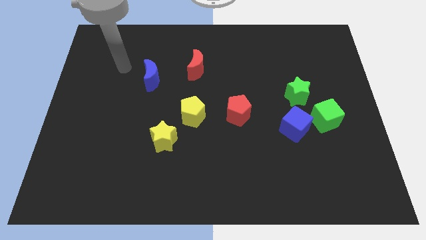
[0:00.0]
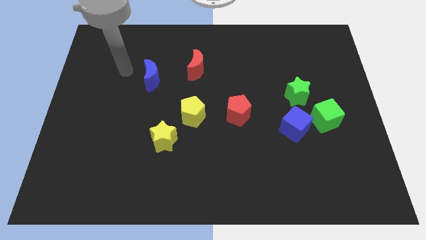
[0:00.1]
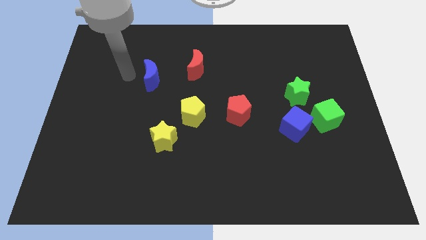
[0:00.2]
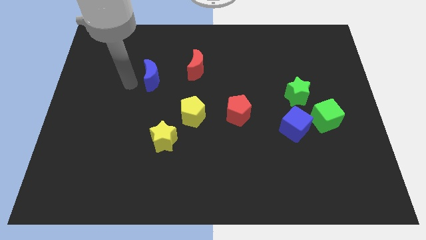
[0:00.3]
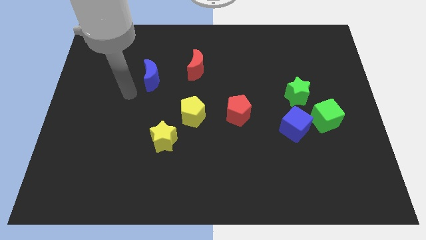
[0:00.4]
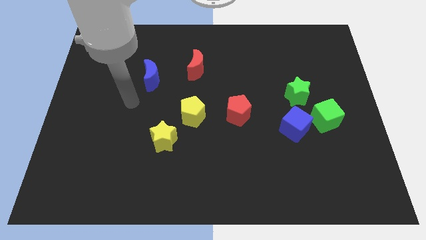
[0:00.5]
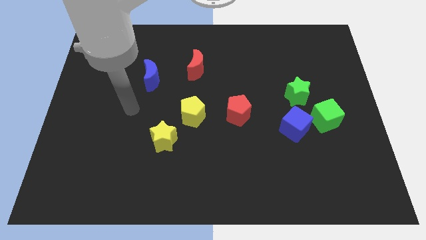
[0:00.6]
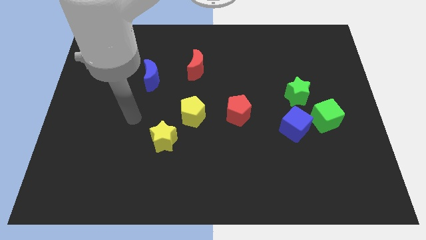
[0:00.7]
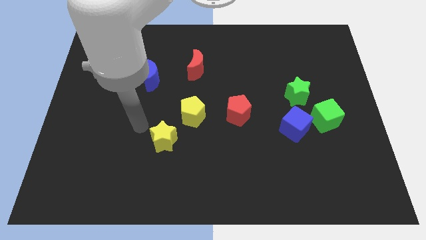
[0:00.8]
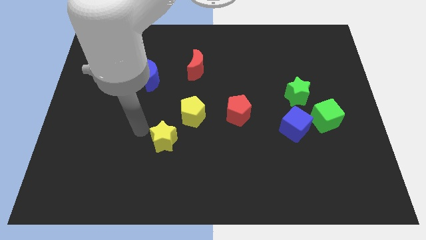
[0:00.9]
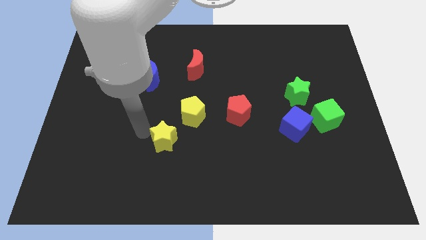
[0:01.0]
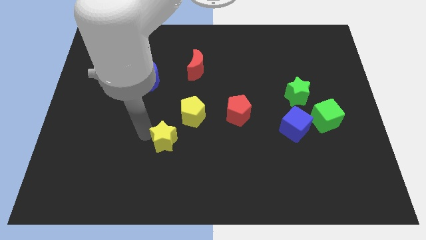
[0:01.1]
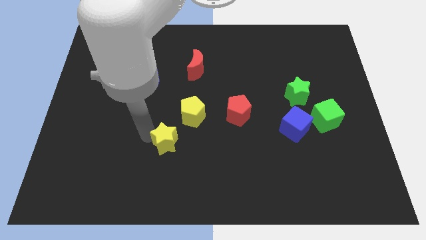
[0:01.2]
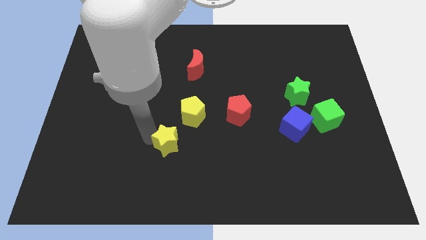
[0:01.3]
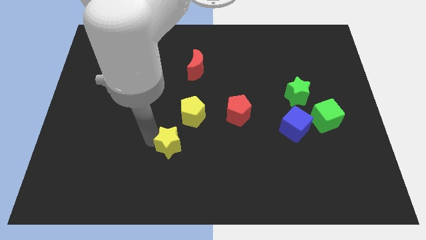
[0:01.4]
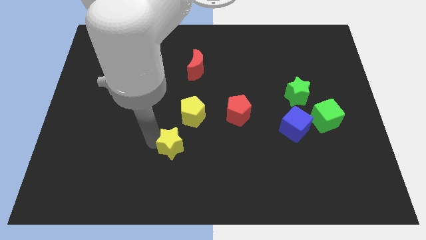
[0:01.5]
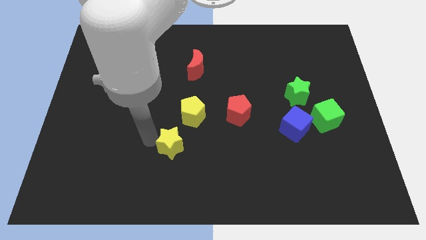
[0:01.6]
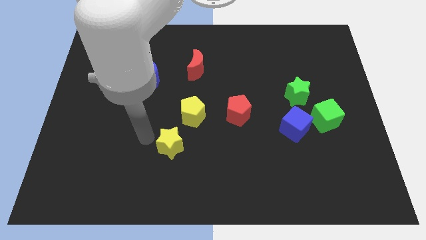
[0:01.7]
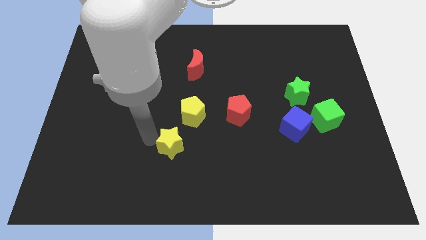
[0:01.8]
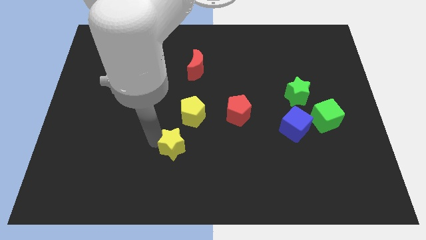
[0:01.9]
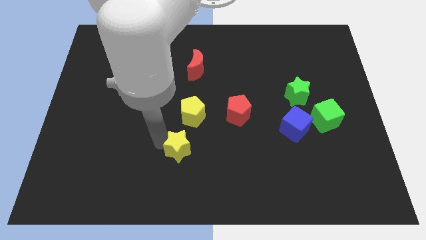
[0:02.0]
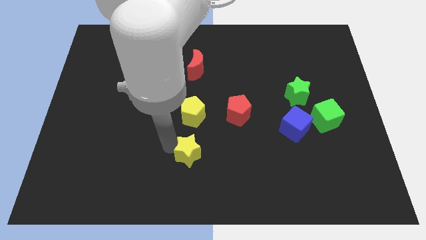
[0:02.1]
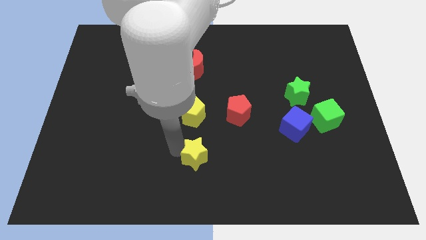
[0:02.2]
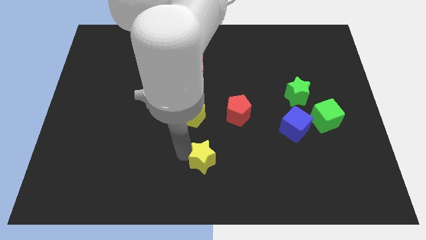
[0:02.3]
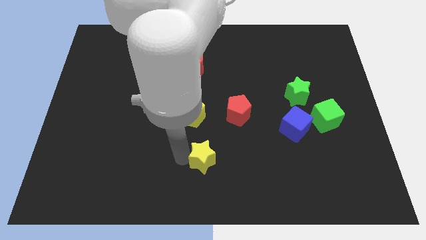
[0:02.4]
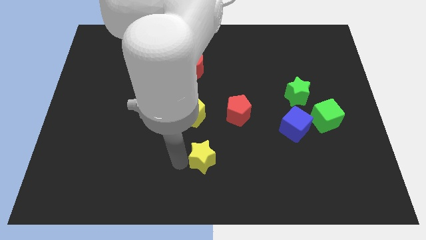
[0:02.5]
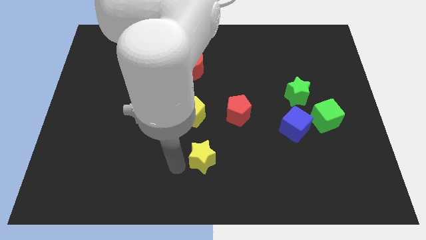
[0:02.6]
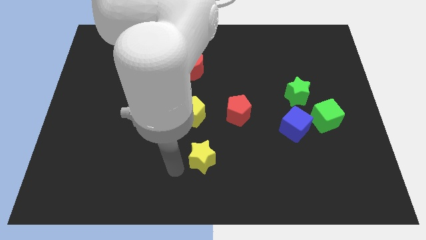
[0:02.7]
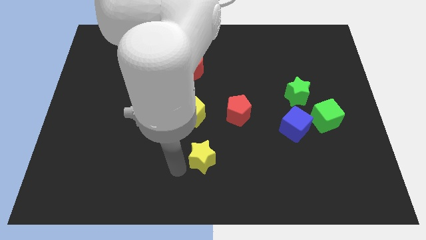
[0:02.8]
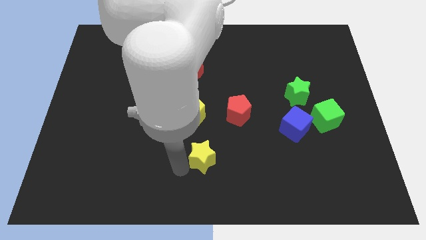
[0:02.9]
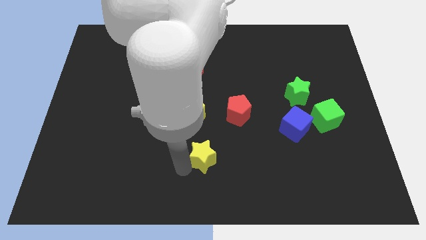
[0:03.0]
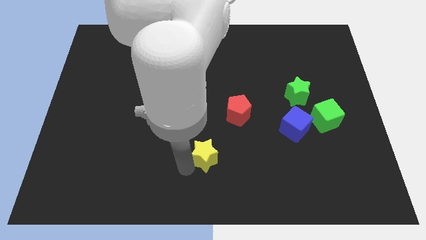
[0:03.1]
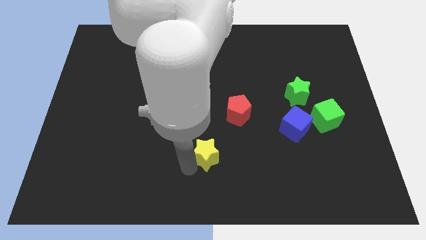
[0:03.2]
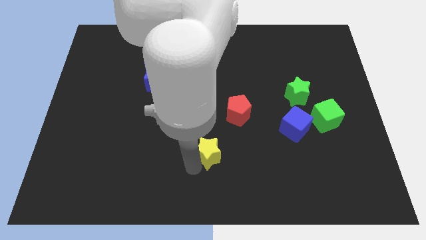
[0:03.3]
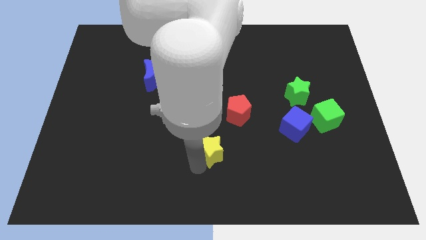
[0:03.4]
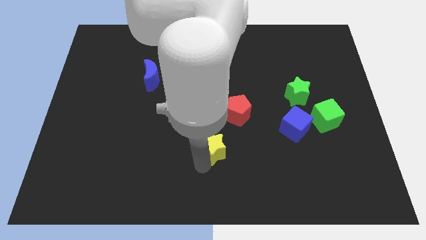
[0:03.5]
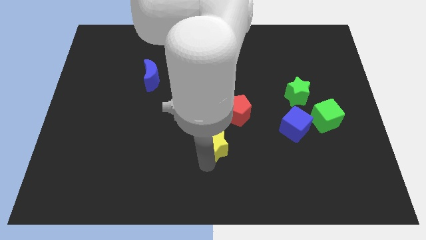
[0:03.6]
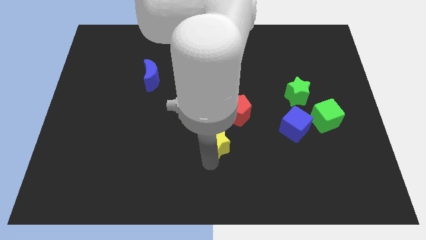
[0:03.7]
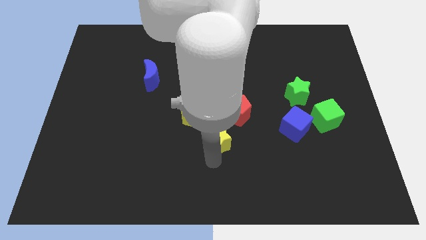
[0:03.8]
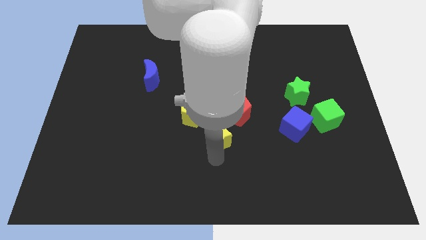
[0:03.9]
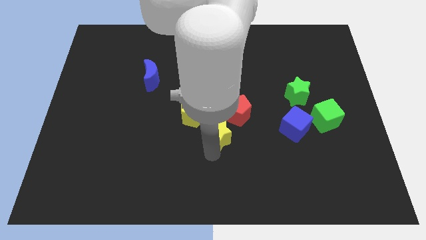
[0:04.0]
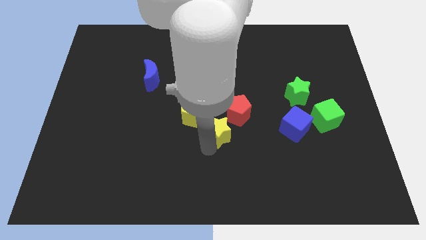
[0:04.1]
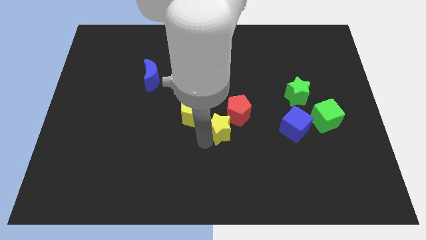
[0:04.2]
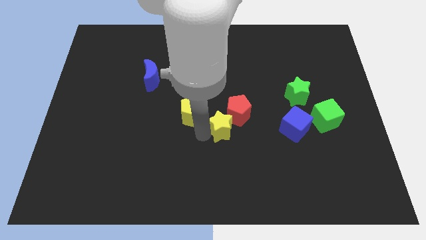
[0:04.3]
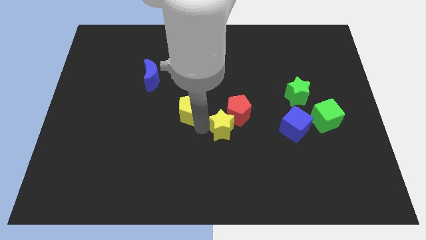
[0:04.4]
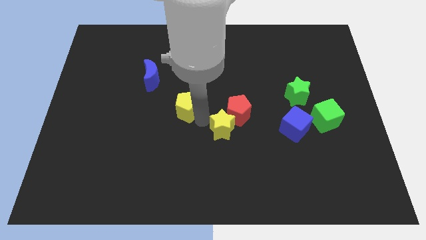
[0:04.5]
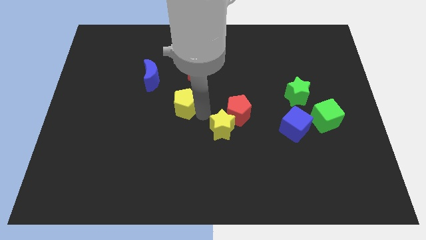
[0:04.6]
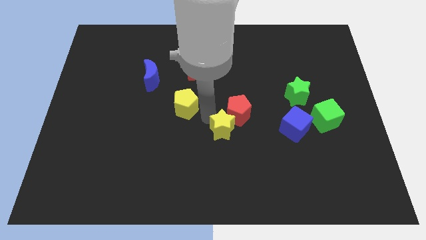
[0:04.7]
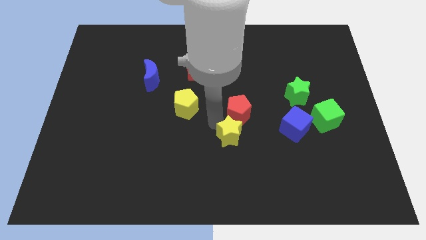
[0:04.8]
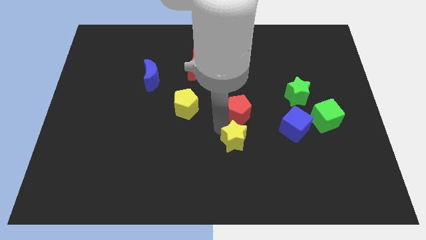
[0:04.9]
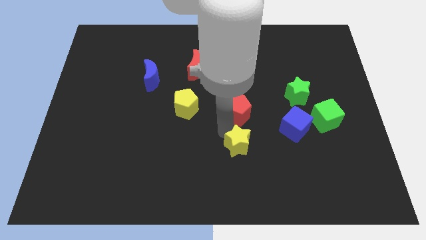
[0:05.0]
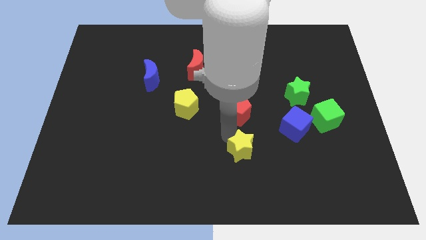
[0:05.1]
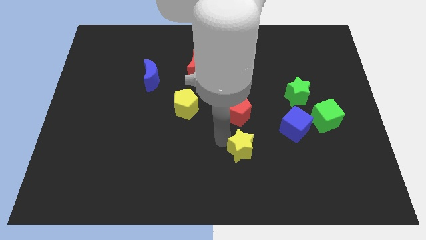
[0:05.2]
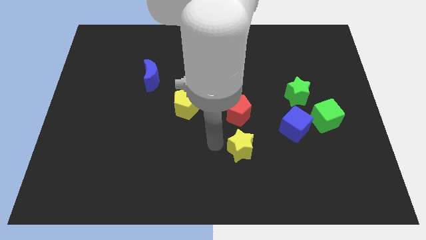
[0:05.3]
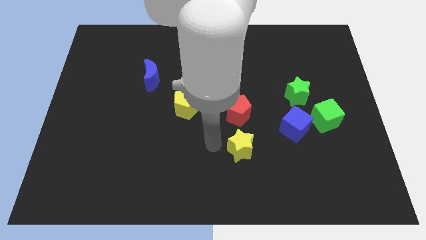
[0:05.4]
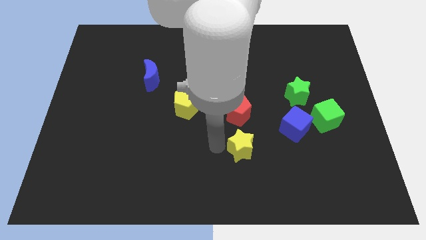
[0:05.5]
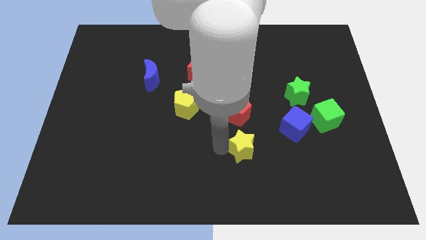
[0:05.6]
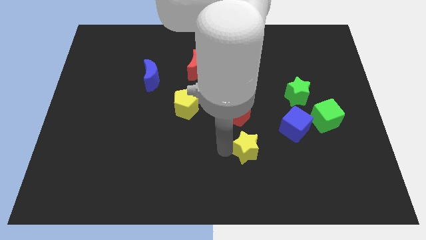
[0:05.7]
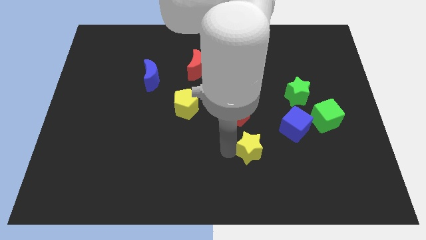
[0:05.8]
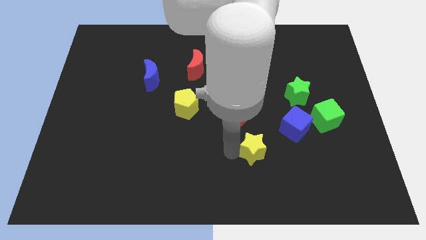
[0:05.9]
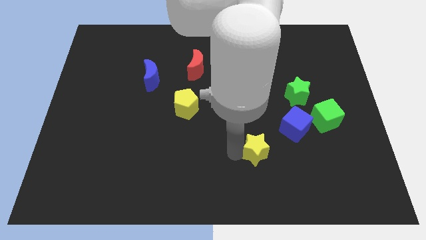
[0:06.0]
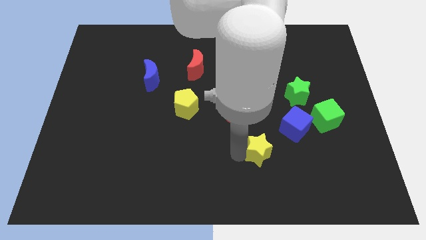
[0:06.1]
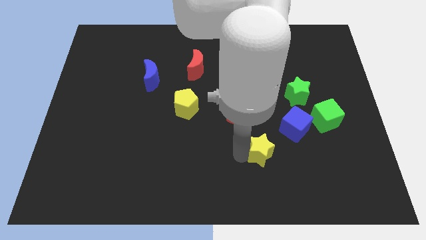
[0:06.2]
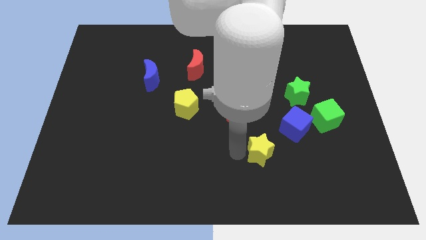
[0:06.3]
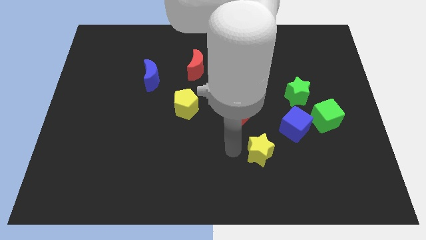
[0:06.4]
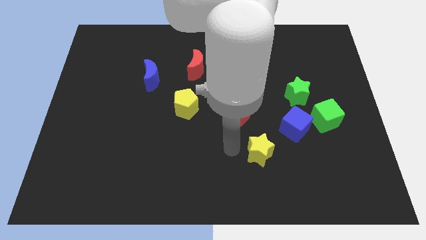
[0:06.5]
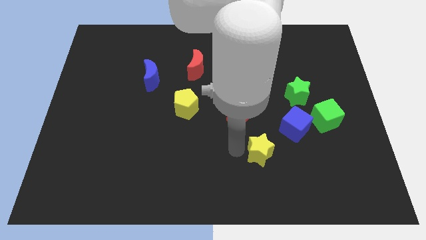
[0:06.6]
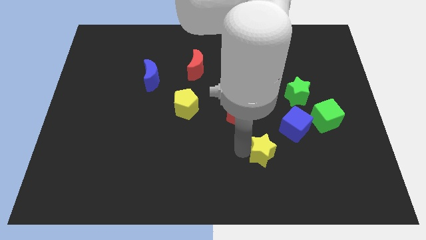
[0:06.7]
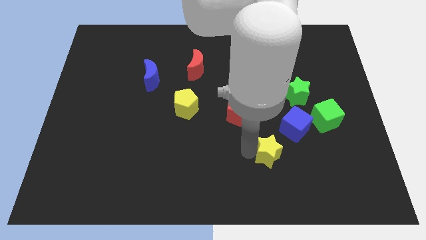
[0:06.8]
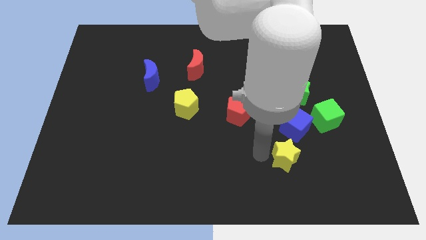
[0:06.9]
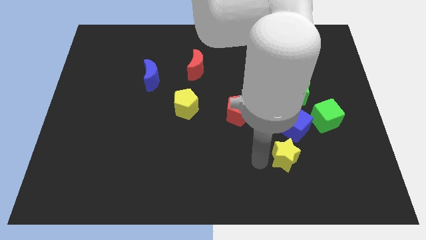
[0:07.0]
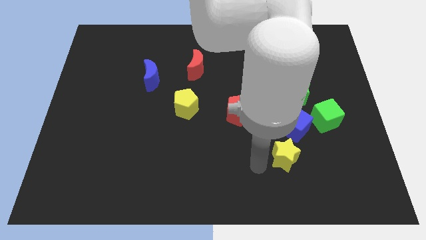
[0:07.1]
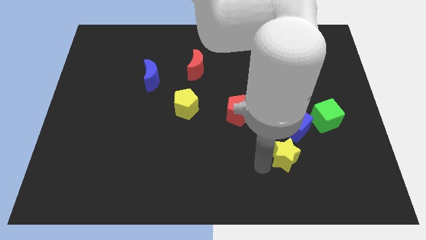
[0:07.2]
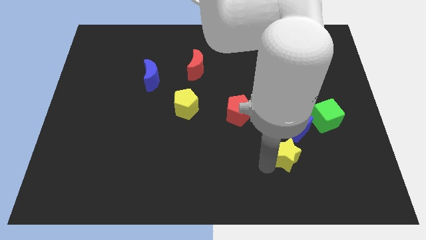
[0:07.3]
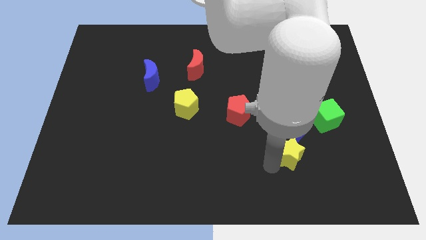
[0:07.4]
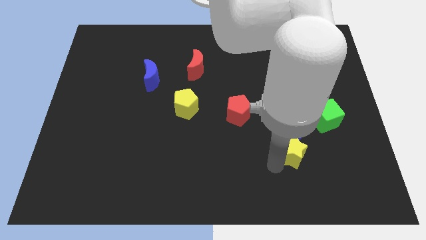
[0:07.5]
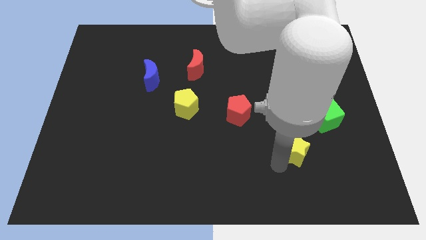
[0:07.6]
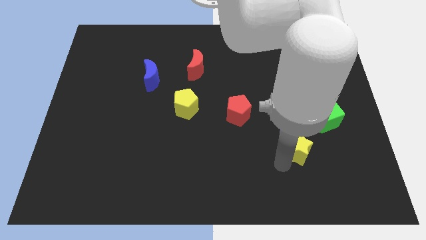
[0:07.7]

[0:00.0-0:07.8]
push the yellow star to the bottom right of the blue cube

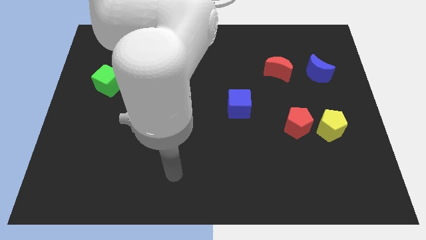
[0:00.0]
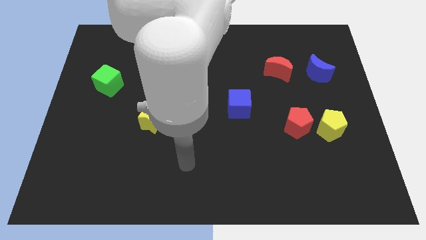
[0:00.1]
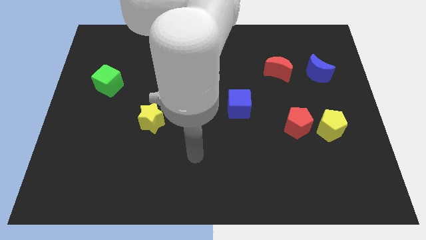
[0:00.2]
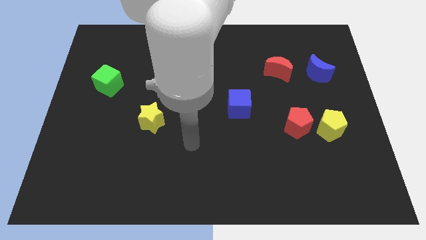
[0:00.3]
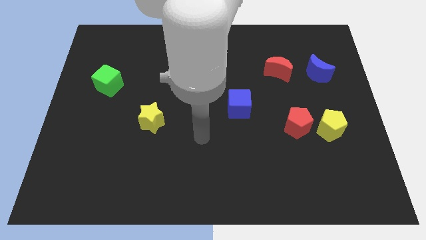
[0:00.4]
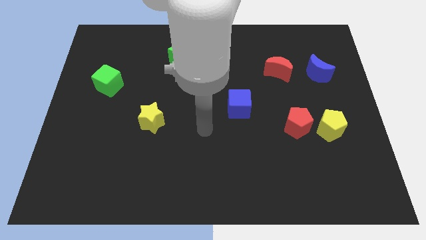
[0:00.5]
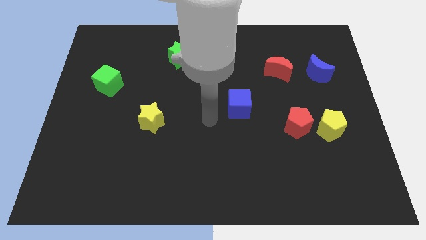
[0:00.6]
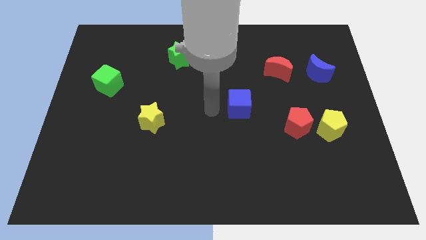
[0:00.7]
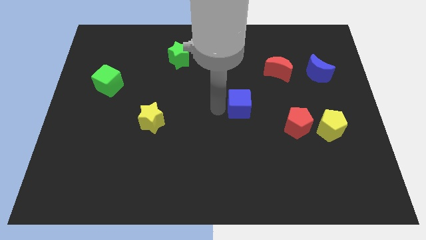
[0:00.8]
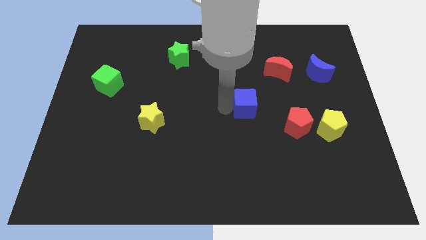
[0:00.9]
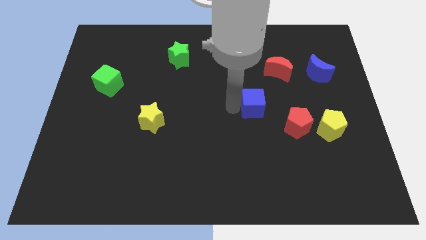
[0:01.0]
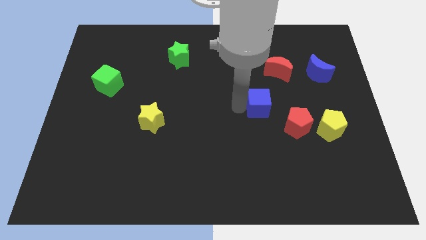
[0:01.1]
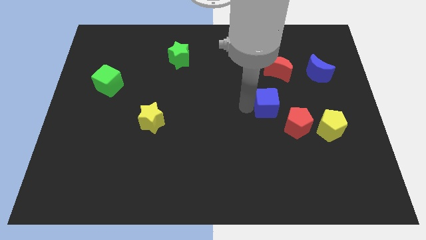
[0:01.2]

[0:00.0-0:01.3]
put the blue cube below the red moon
